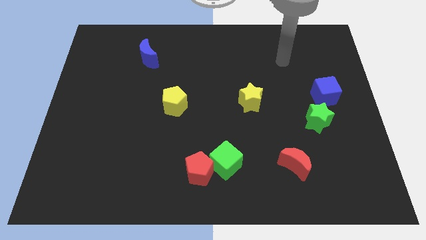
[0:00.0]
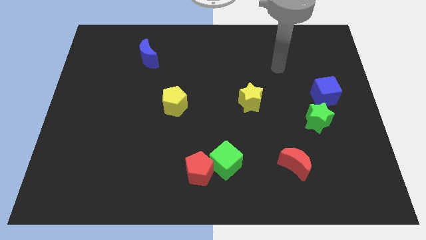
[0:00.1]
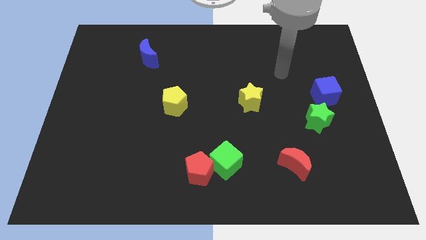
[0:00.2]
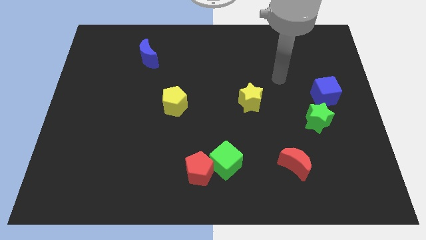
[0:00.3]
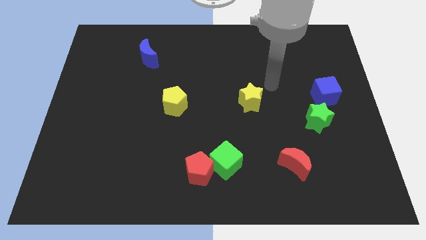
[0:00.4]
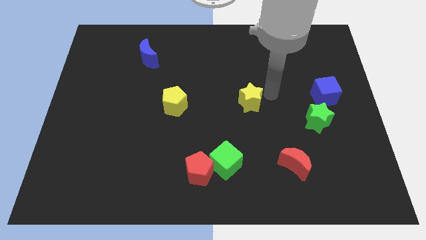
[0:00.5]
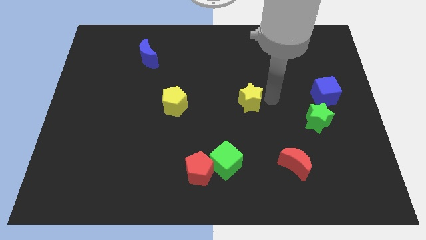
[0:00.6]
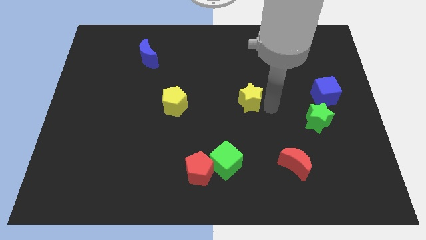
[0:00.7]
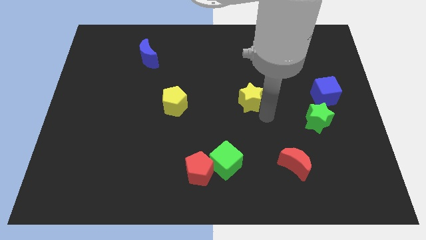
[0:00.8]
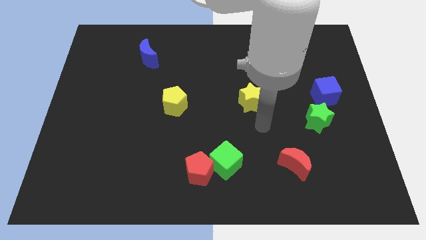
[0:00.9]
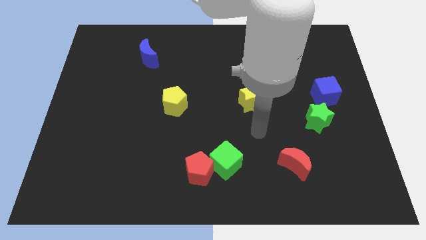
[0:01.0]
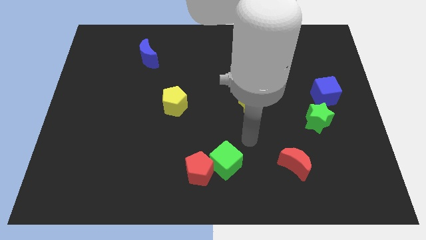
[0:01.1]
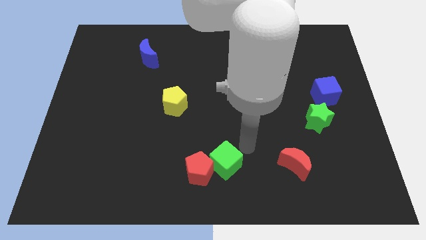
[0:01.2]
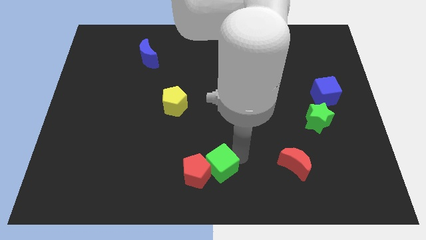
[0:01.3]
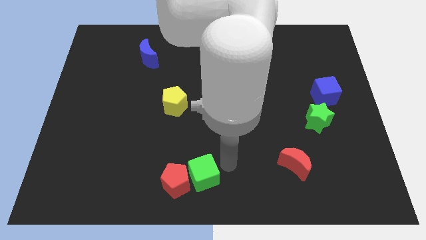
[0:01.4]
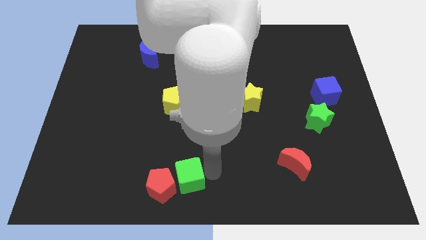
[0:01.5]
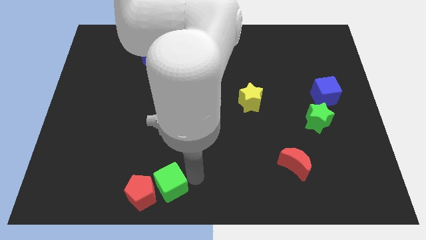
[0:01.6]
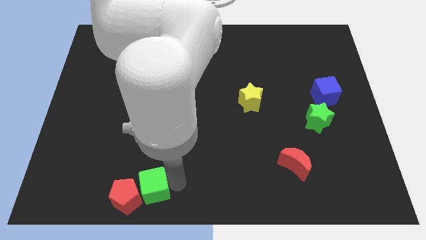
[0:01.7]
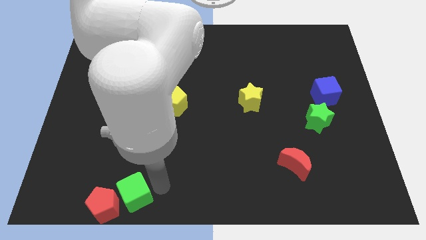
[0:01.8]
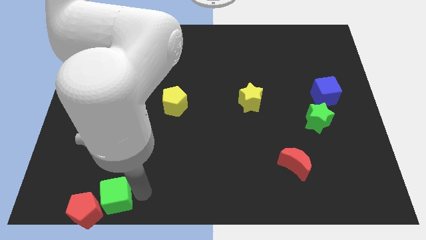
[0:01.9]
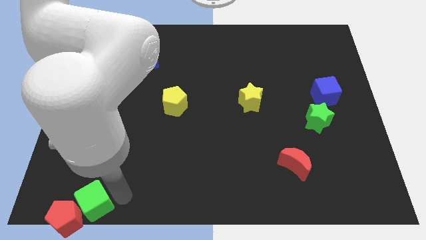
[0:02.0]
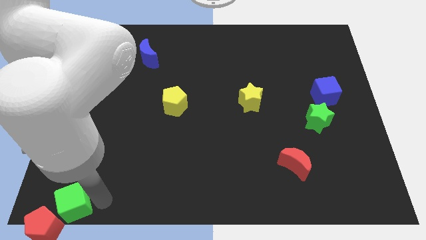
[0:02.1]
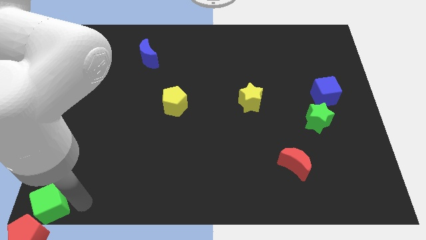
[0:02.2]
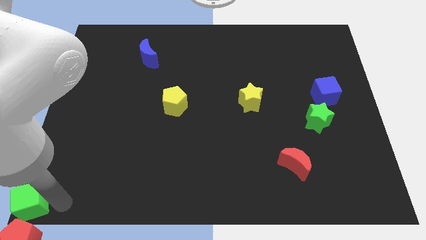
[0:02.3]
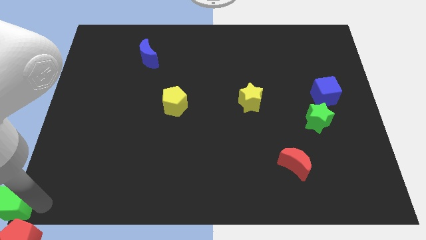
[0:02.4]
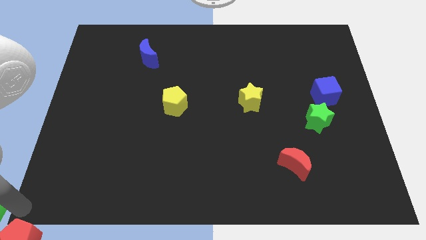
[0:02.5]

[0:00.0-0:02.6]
pull the red pentagon apart from the green cube

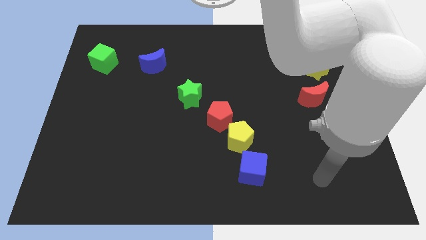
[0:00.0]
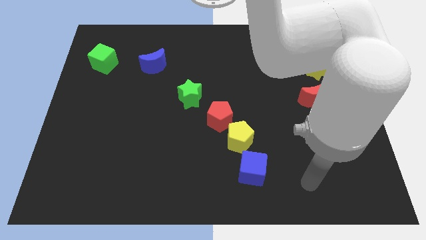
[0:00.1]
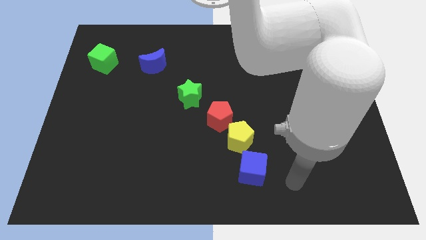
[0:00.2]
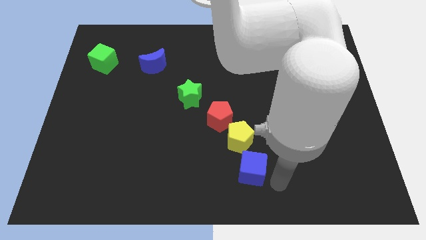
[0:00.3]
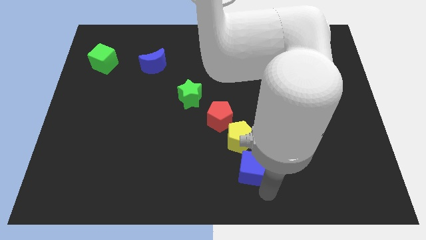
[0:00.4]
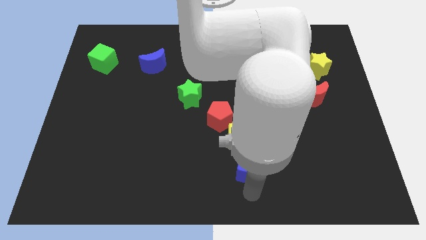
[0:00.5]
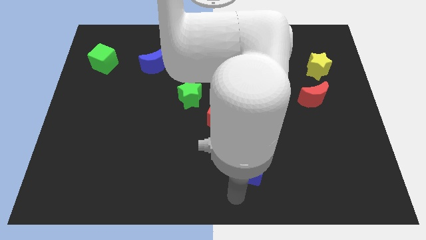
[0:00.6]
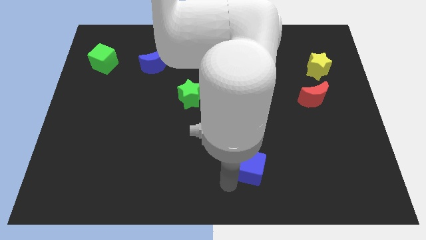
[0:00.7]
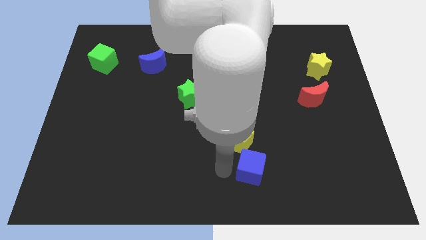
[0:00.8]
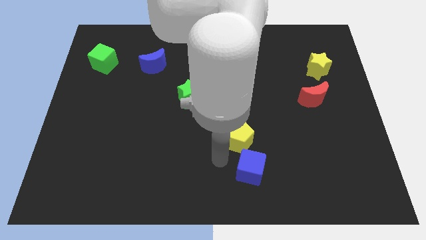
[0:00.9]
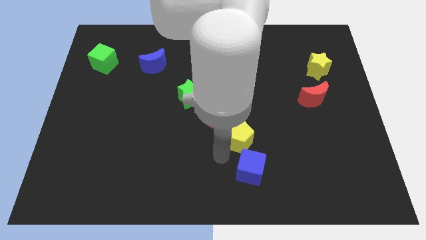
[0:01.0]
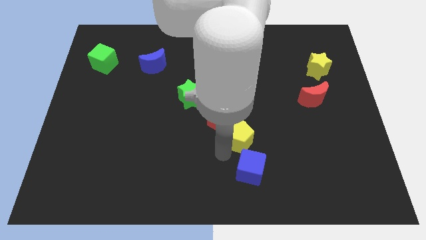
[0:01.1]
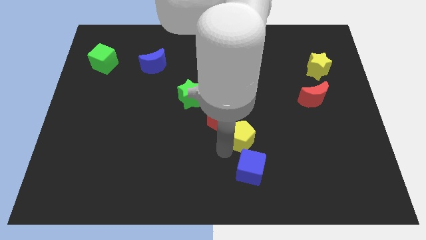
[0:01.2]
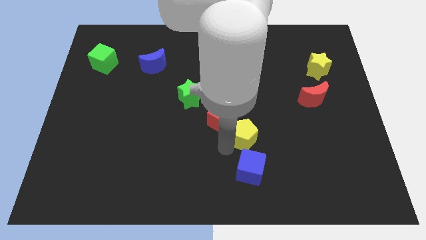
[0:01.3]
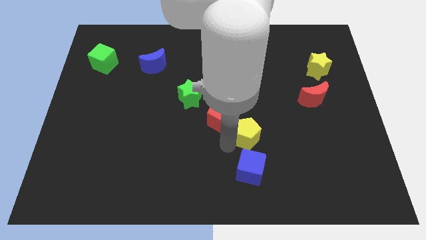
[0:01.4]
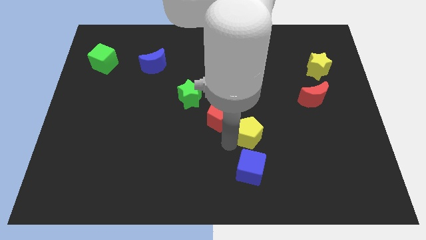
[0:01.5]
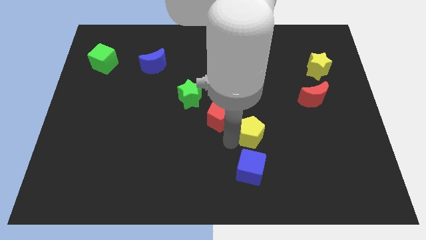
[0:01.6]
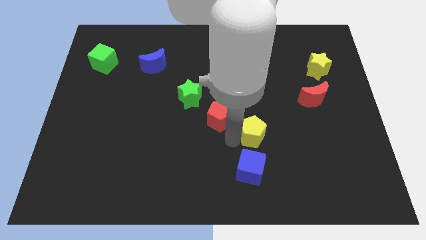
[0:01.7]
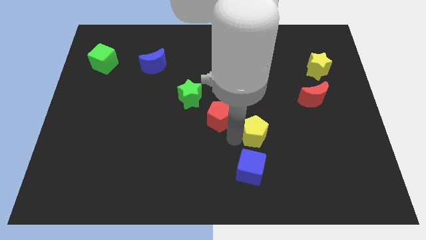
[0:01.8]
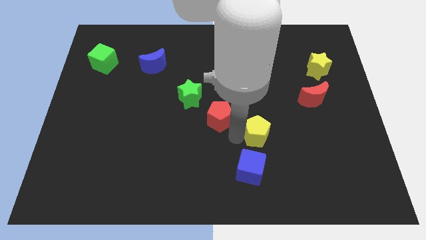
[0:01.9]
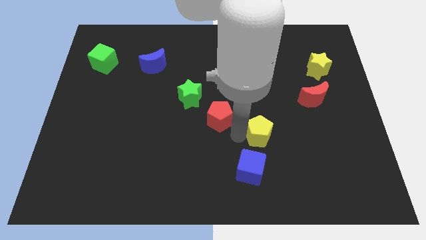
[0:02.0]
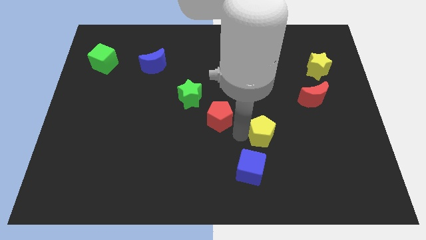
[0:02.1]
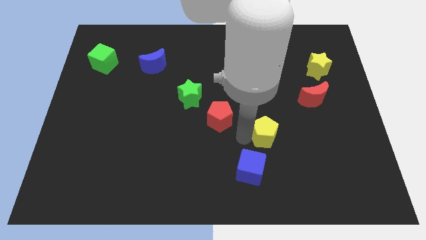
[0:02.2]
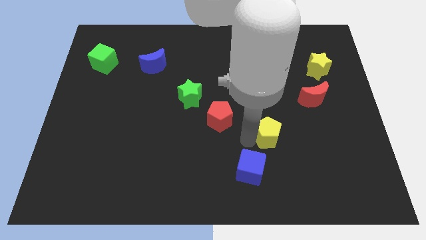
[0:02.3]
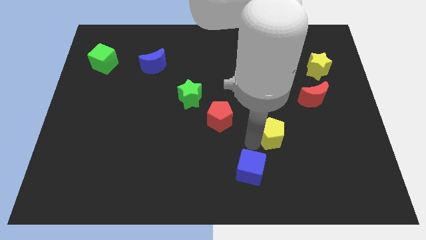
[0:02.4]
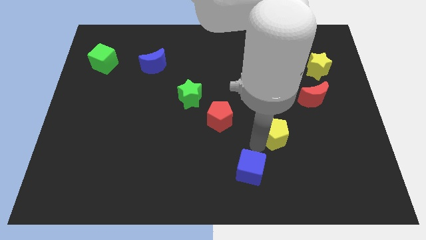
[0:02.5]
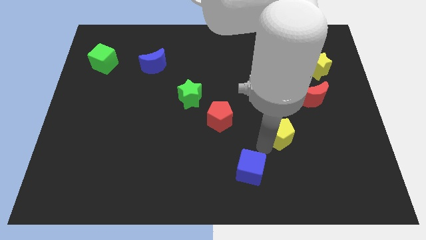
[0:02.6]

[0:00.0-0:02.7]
separate the yellow pentagon from the red pentagon and blue cube

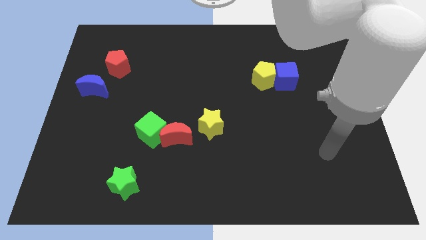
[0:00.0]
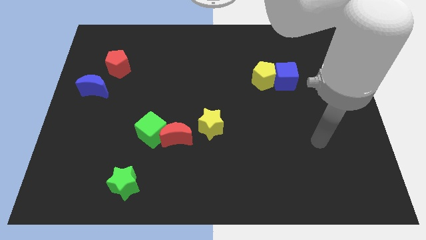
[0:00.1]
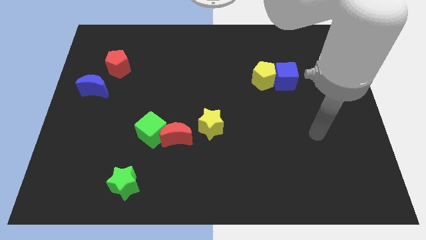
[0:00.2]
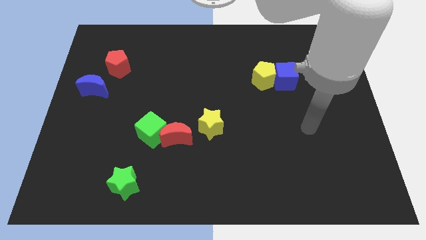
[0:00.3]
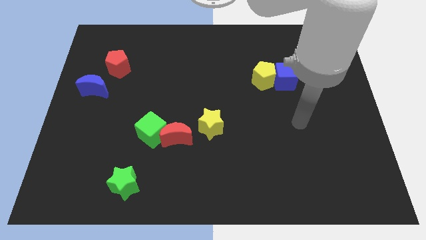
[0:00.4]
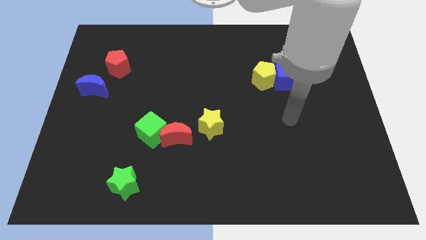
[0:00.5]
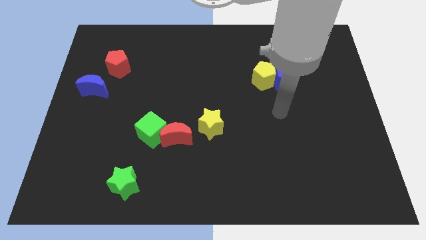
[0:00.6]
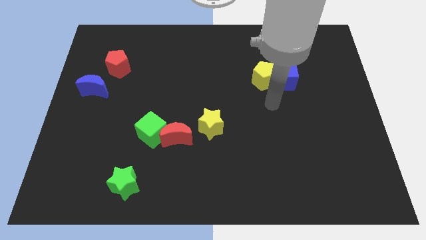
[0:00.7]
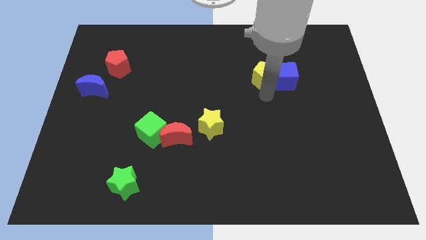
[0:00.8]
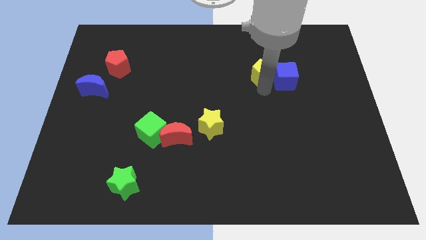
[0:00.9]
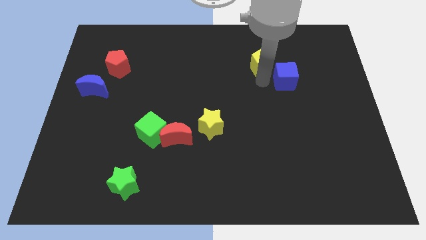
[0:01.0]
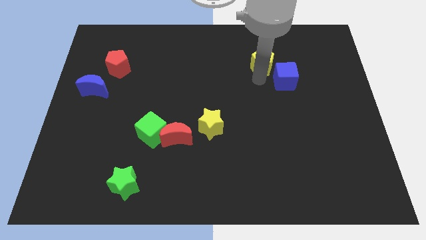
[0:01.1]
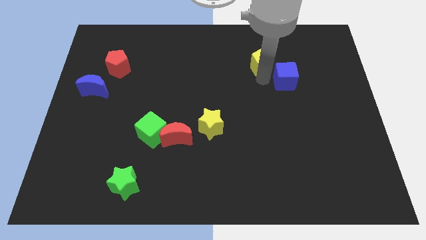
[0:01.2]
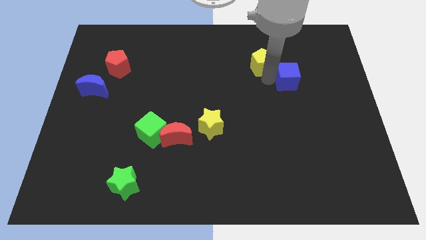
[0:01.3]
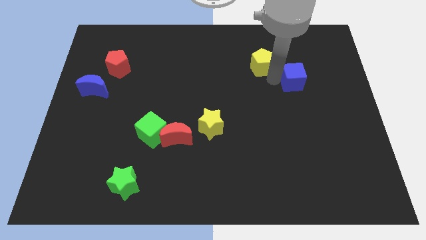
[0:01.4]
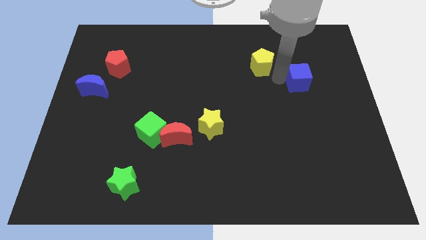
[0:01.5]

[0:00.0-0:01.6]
pull the blue cube apart from the yellow pentagon

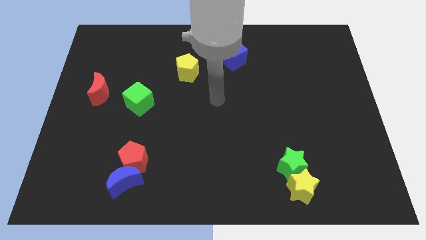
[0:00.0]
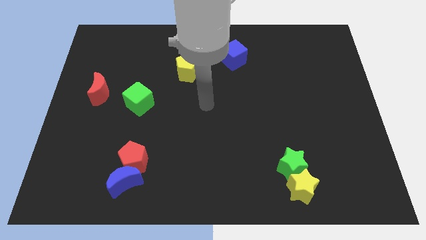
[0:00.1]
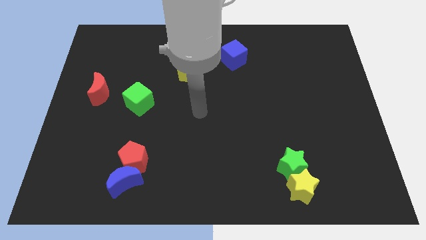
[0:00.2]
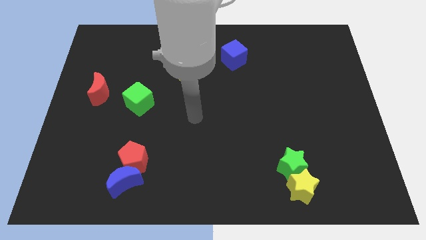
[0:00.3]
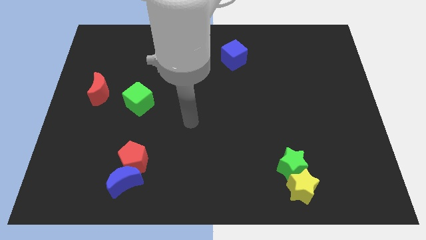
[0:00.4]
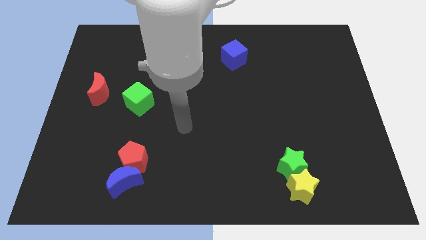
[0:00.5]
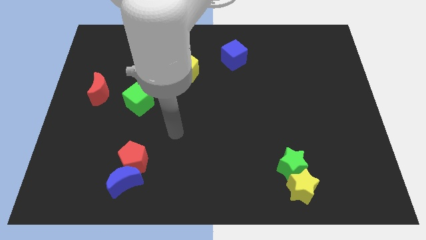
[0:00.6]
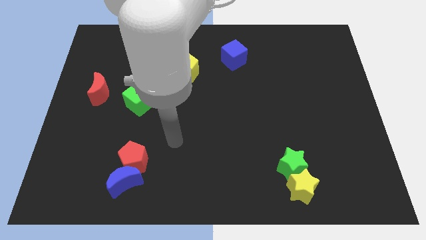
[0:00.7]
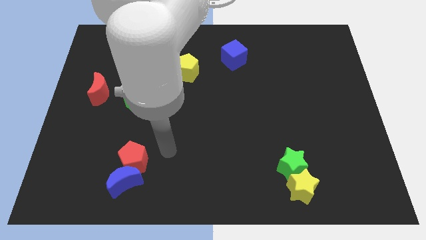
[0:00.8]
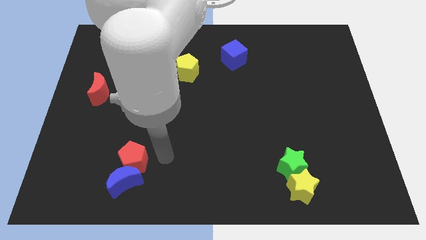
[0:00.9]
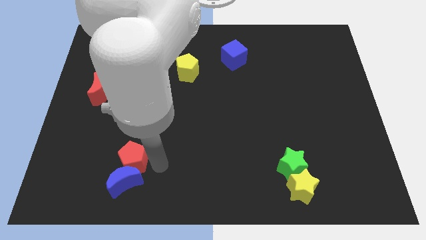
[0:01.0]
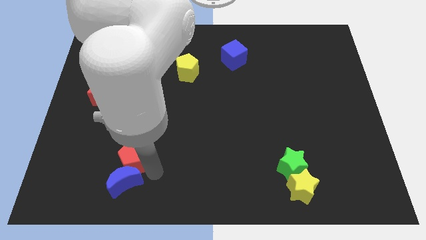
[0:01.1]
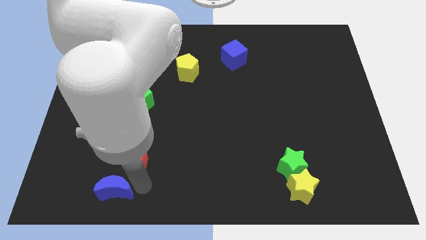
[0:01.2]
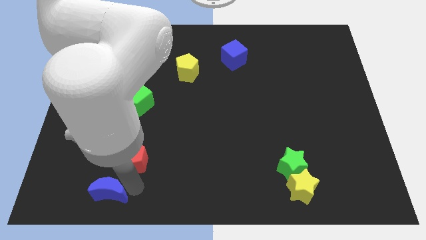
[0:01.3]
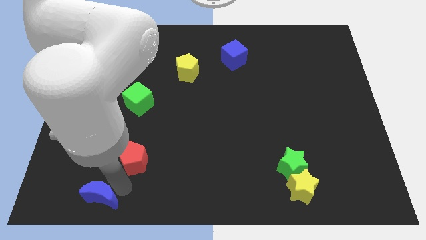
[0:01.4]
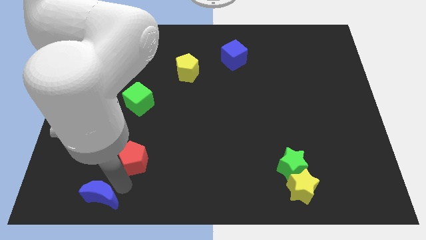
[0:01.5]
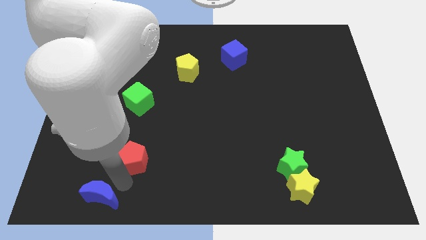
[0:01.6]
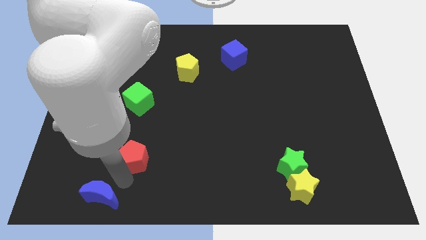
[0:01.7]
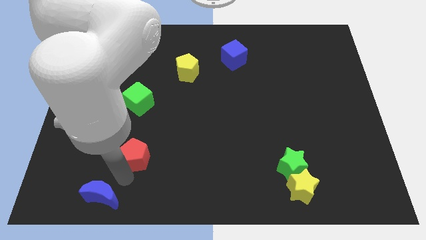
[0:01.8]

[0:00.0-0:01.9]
separate the red pentagon from the blue moon

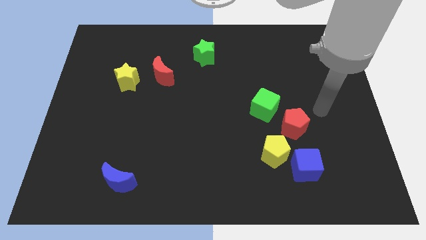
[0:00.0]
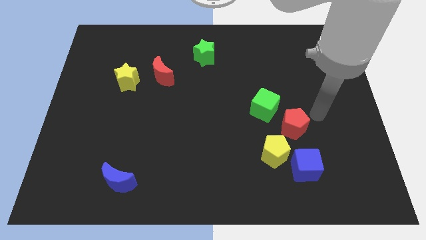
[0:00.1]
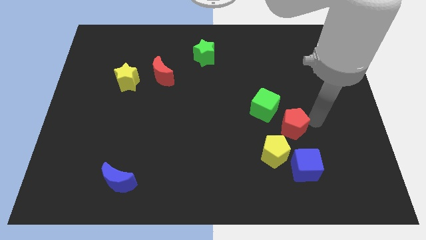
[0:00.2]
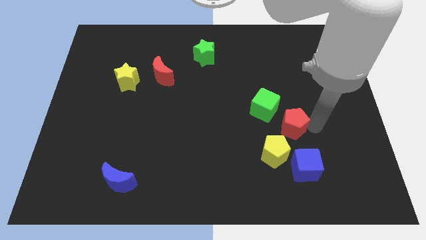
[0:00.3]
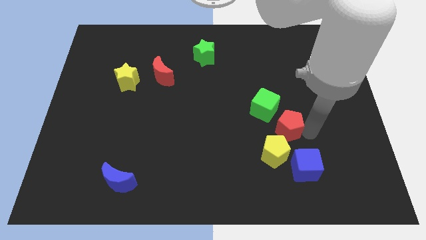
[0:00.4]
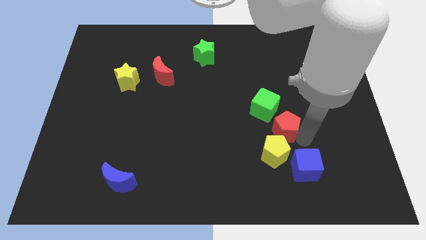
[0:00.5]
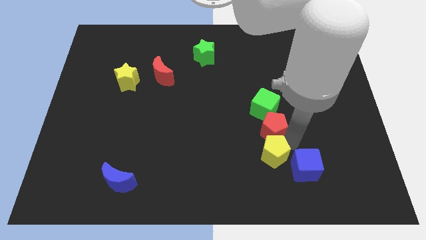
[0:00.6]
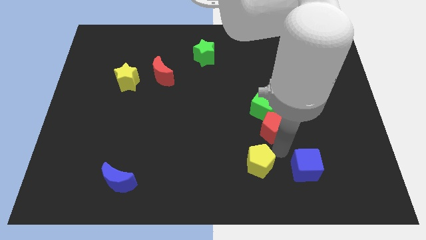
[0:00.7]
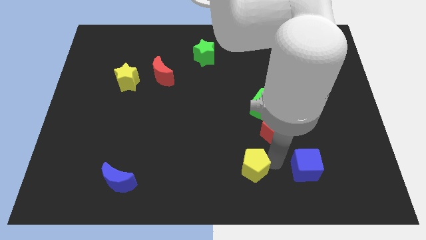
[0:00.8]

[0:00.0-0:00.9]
separate the blue cube from the yellow pentagon
